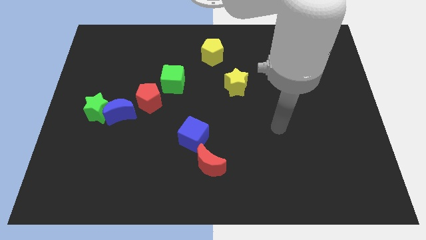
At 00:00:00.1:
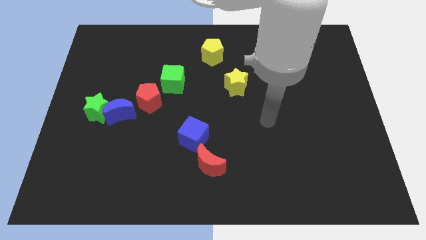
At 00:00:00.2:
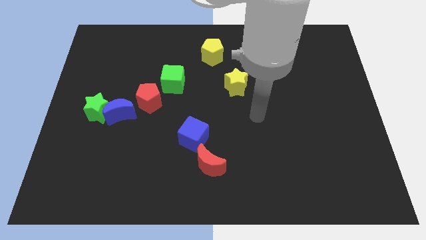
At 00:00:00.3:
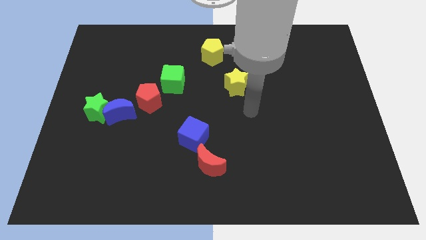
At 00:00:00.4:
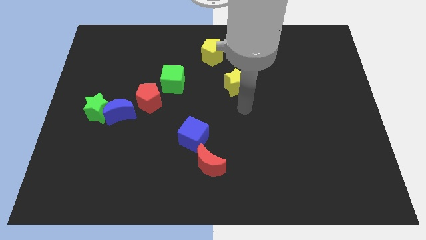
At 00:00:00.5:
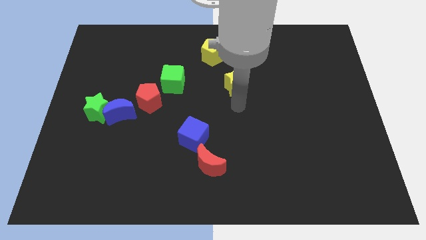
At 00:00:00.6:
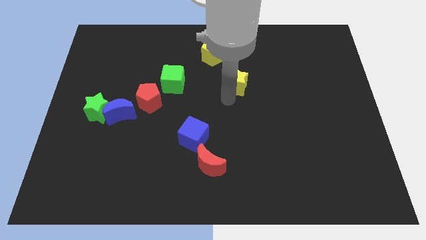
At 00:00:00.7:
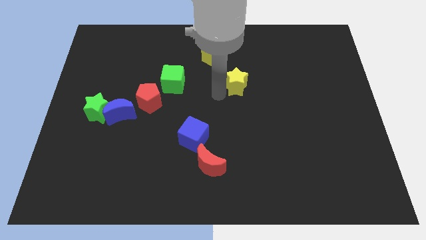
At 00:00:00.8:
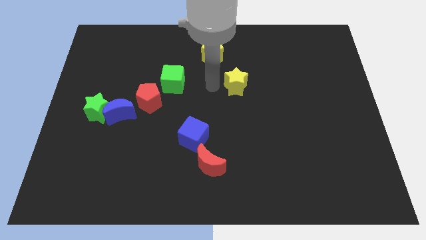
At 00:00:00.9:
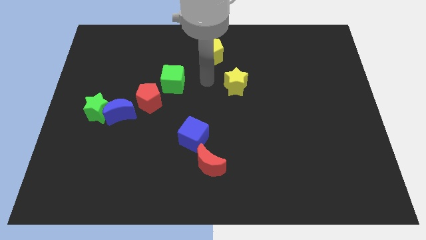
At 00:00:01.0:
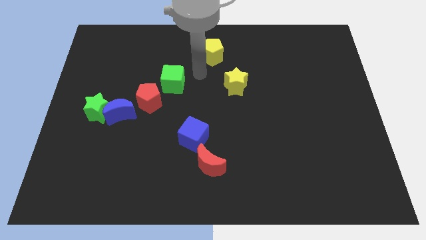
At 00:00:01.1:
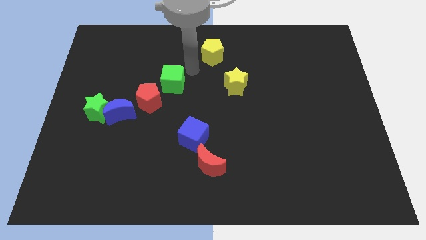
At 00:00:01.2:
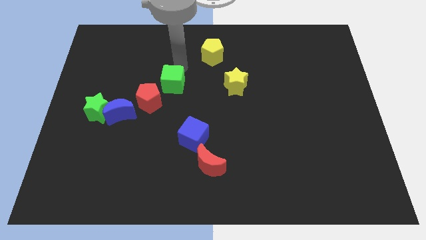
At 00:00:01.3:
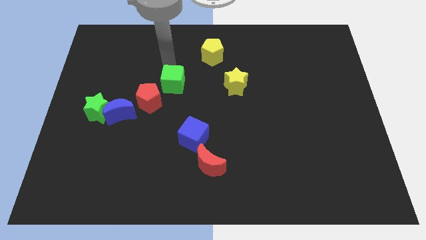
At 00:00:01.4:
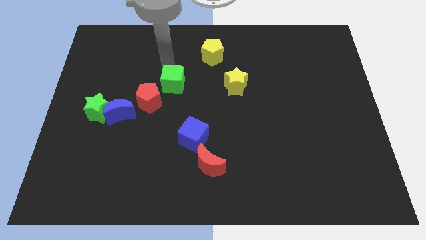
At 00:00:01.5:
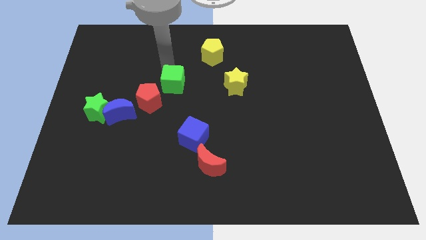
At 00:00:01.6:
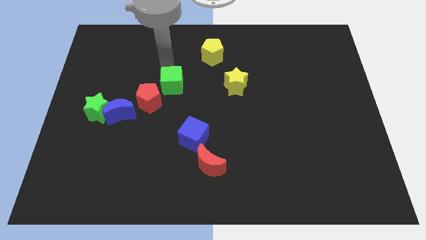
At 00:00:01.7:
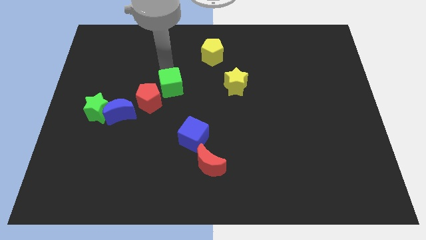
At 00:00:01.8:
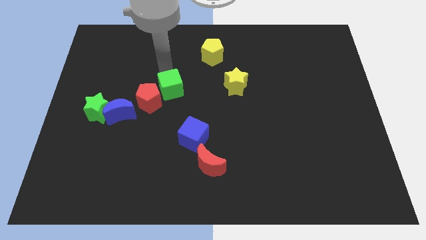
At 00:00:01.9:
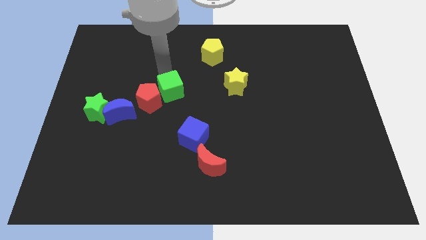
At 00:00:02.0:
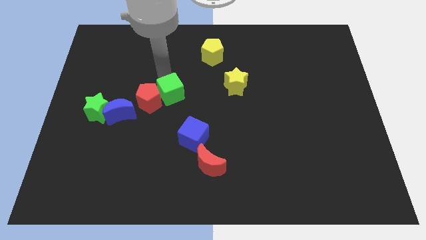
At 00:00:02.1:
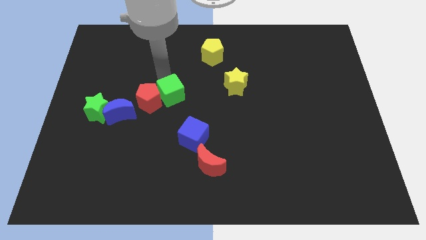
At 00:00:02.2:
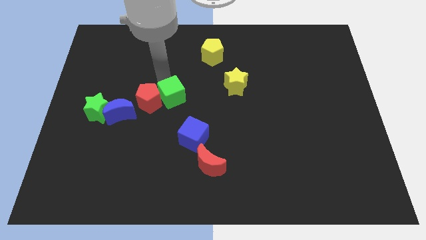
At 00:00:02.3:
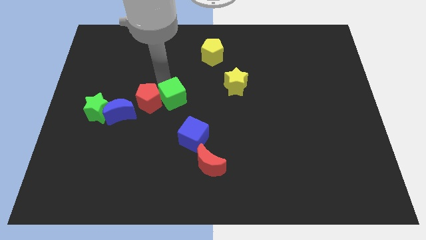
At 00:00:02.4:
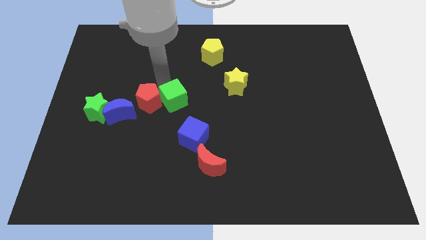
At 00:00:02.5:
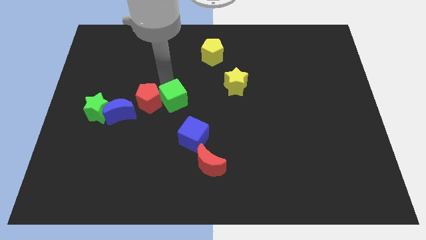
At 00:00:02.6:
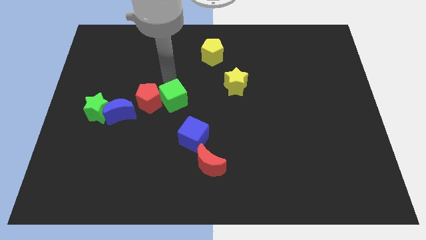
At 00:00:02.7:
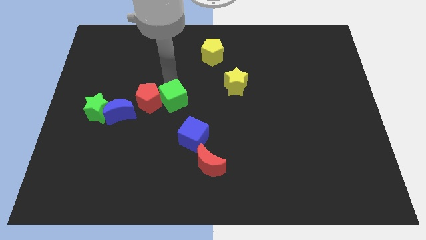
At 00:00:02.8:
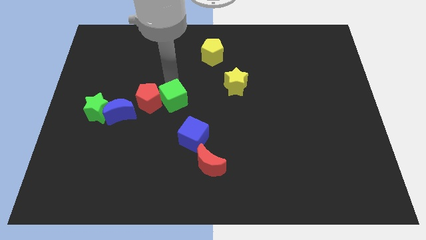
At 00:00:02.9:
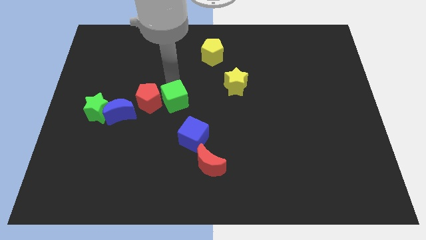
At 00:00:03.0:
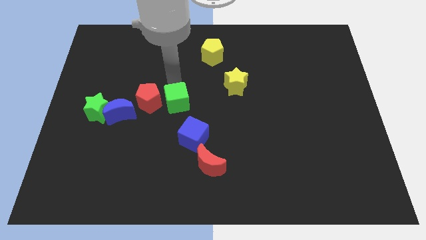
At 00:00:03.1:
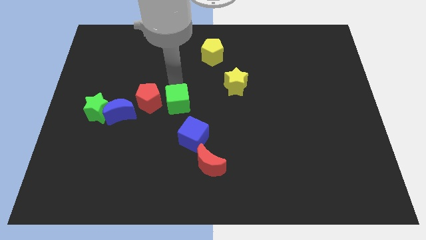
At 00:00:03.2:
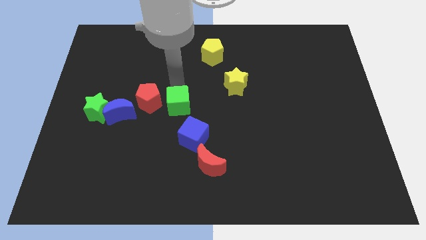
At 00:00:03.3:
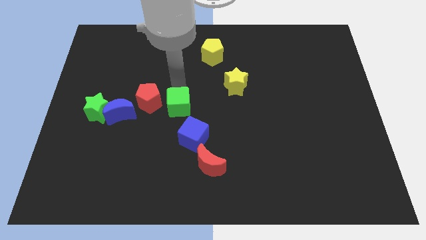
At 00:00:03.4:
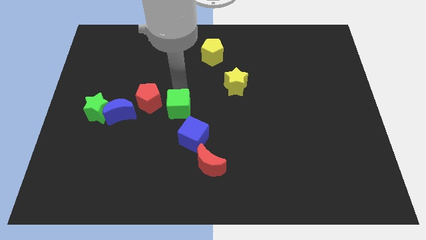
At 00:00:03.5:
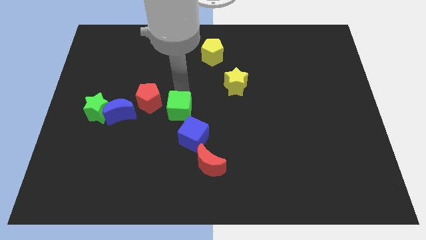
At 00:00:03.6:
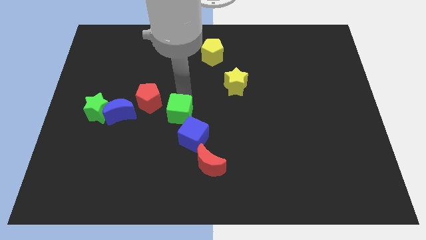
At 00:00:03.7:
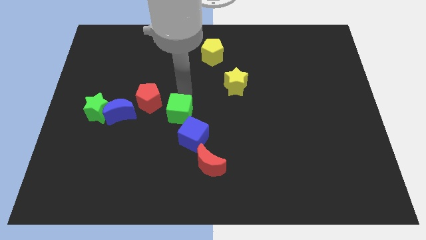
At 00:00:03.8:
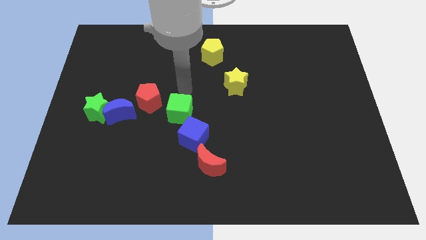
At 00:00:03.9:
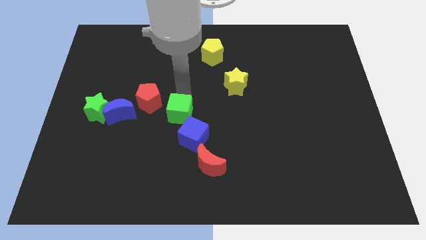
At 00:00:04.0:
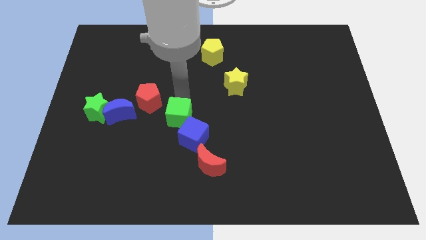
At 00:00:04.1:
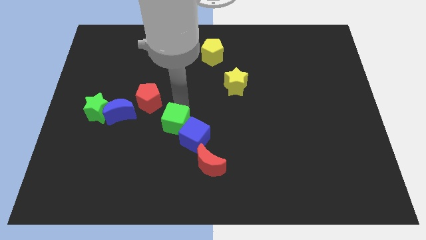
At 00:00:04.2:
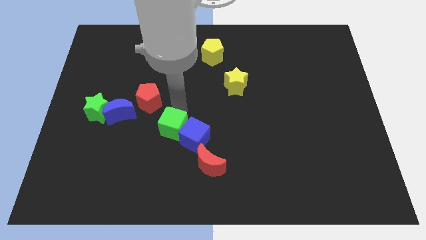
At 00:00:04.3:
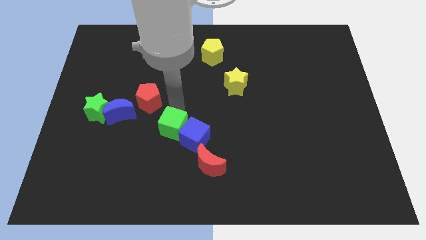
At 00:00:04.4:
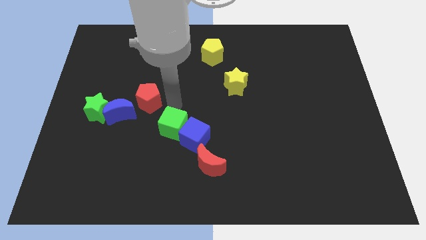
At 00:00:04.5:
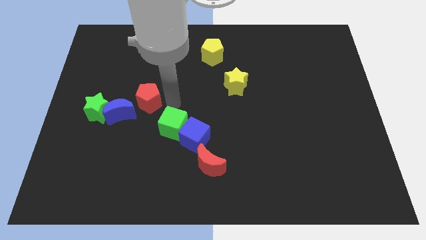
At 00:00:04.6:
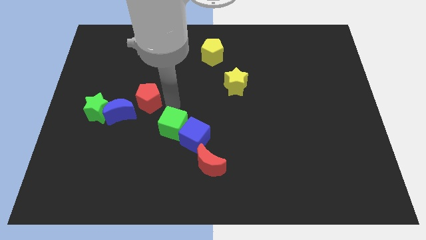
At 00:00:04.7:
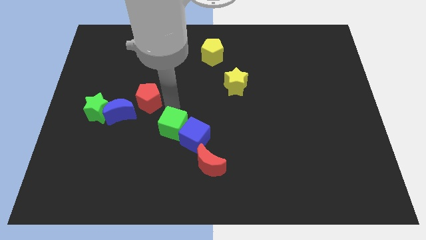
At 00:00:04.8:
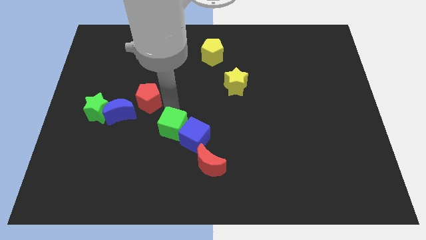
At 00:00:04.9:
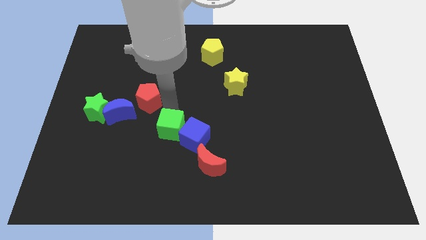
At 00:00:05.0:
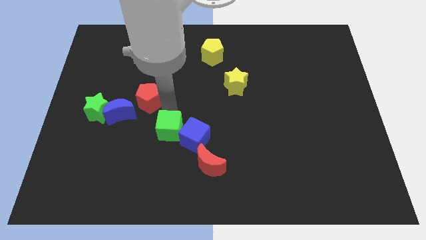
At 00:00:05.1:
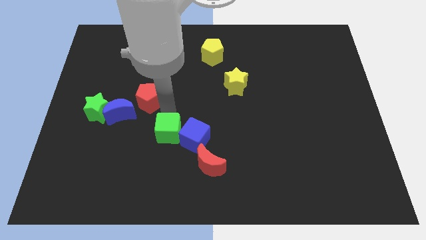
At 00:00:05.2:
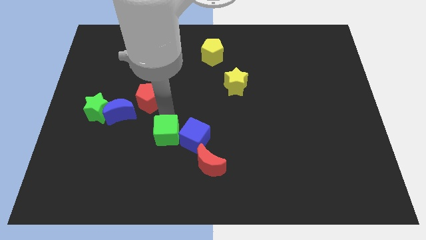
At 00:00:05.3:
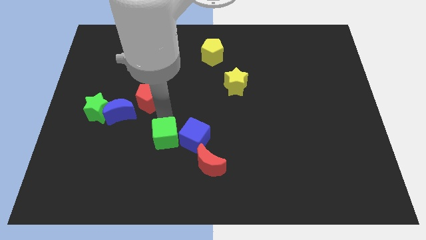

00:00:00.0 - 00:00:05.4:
put the green cube diagonally down and to the left of the blue cube

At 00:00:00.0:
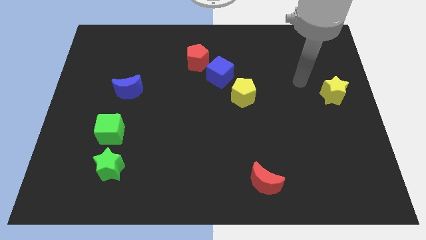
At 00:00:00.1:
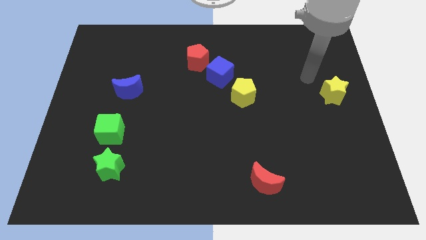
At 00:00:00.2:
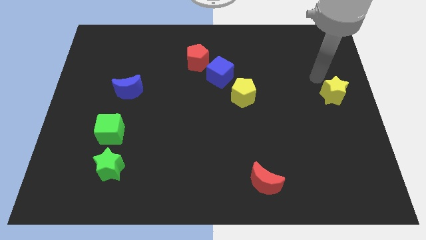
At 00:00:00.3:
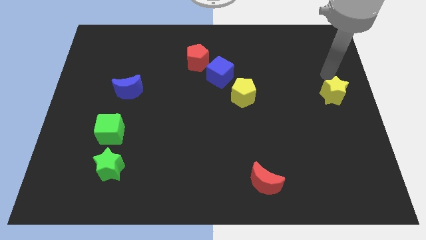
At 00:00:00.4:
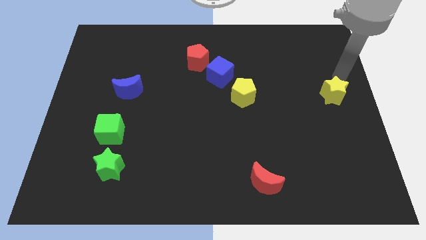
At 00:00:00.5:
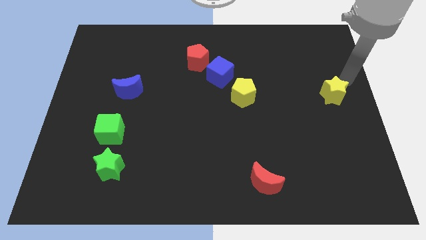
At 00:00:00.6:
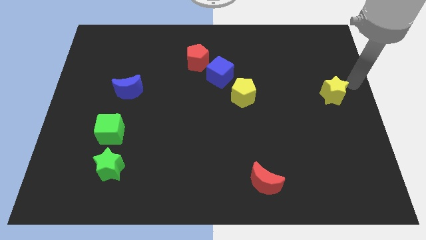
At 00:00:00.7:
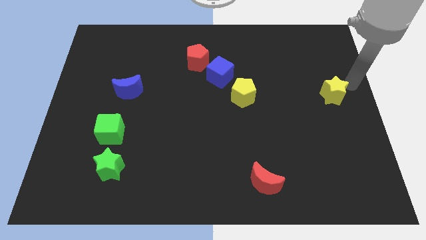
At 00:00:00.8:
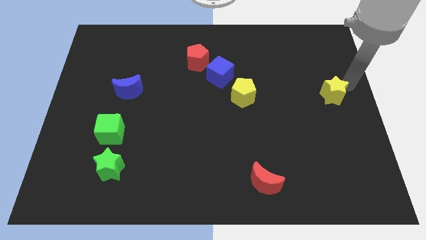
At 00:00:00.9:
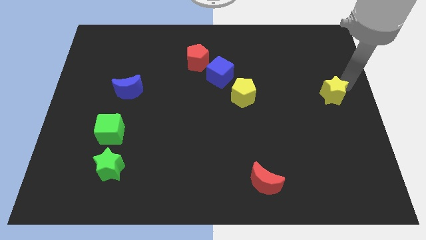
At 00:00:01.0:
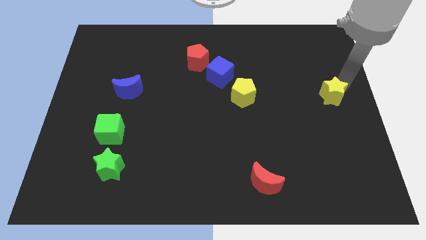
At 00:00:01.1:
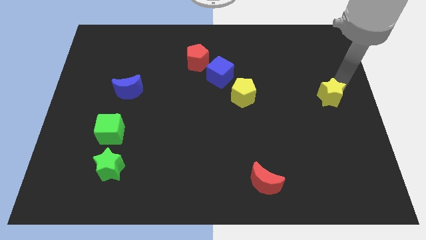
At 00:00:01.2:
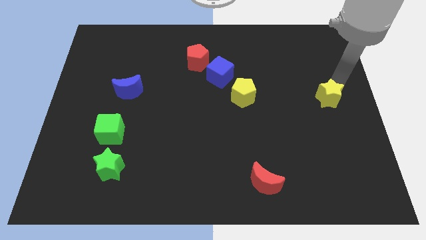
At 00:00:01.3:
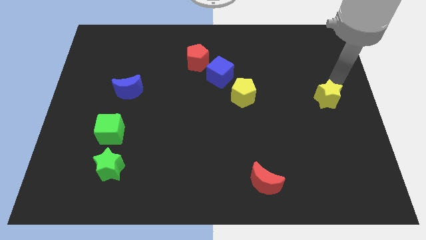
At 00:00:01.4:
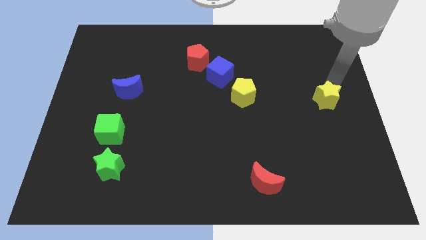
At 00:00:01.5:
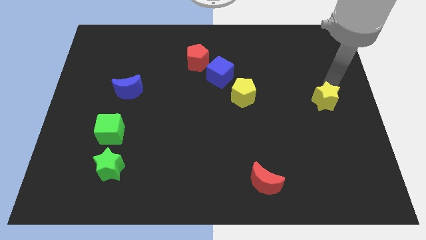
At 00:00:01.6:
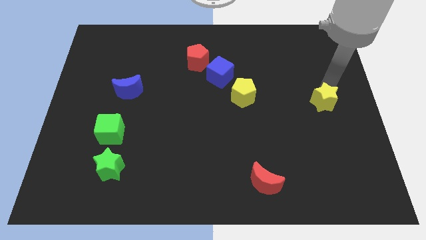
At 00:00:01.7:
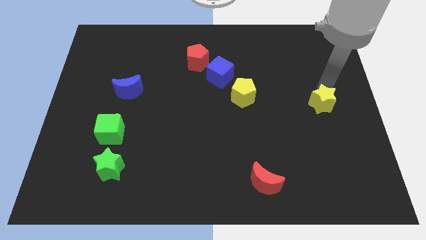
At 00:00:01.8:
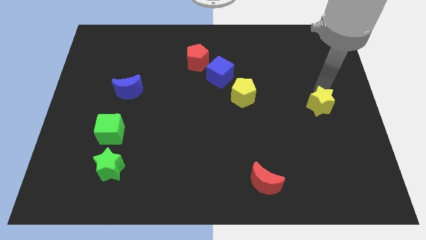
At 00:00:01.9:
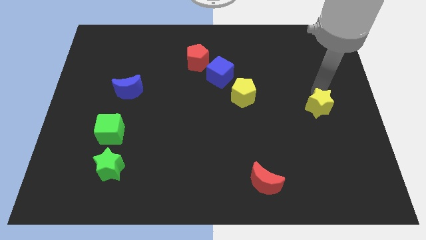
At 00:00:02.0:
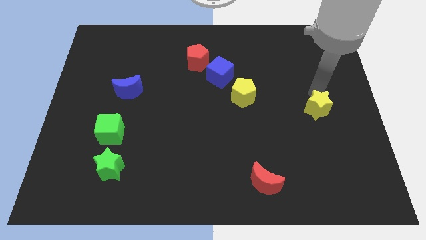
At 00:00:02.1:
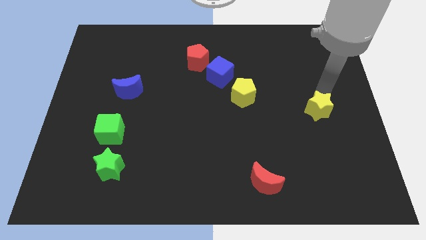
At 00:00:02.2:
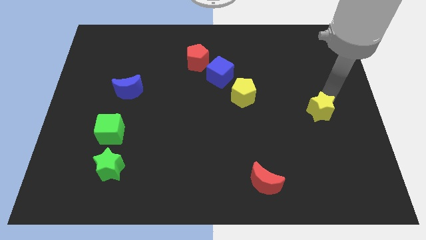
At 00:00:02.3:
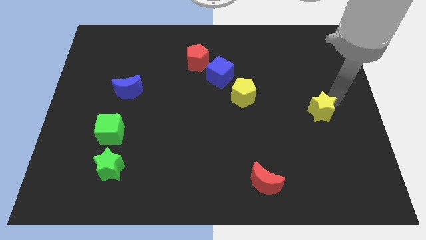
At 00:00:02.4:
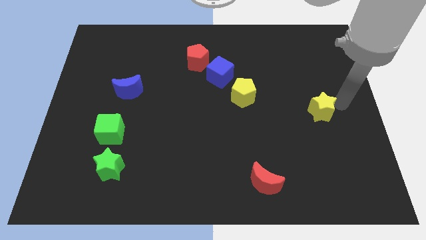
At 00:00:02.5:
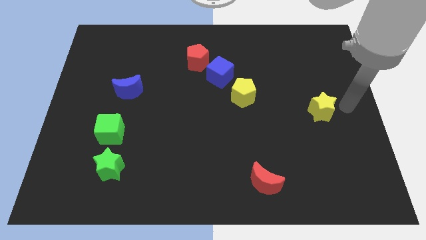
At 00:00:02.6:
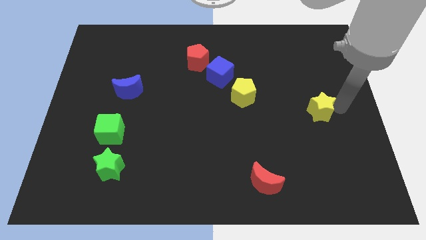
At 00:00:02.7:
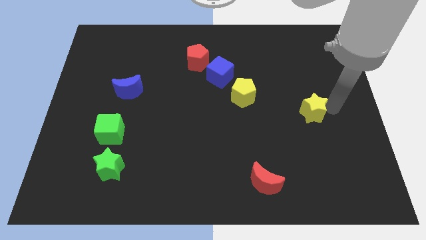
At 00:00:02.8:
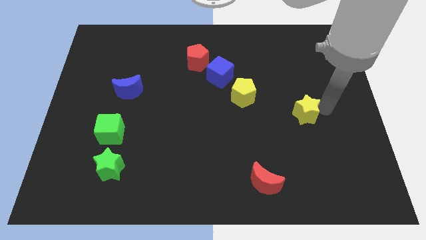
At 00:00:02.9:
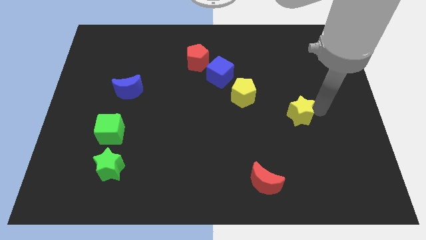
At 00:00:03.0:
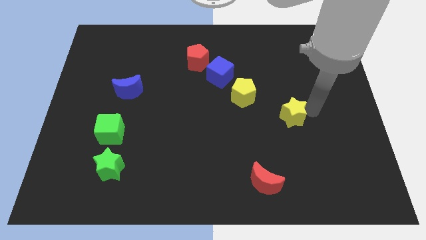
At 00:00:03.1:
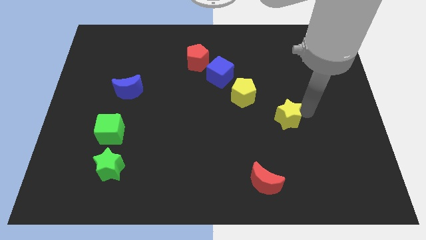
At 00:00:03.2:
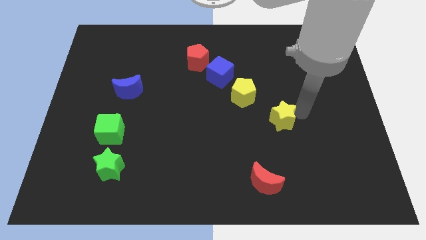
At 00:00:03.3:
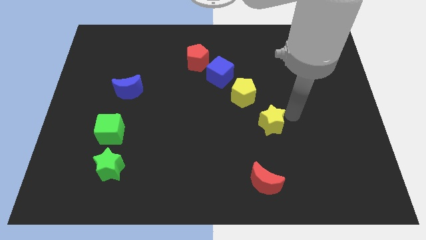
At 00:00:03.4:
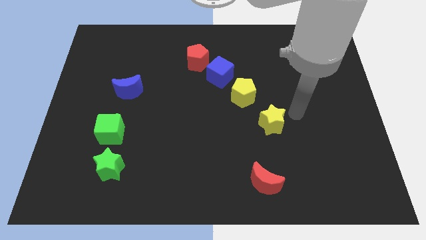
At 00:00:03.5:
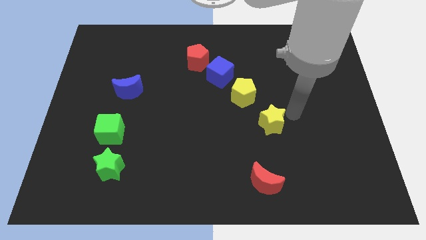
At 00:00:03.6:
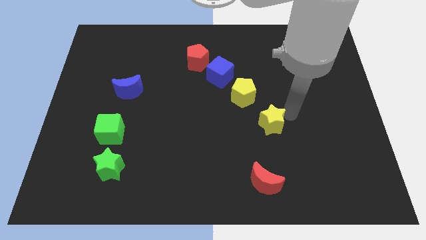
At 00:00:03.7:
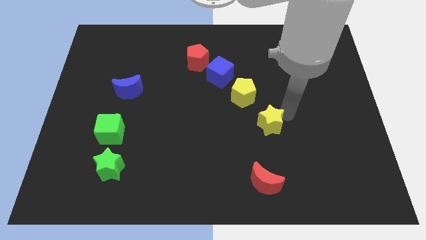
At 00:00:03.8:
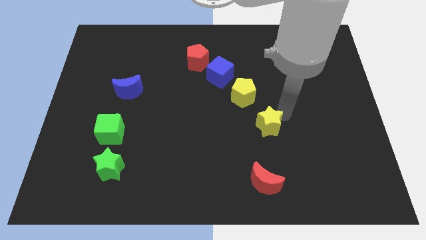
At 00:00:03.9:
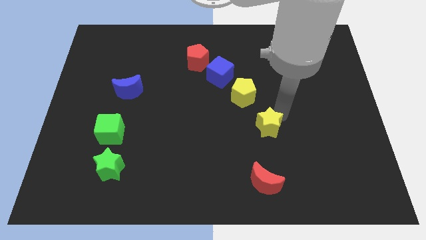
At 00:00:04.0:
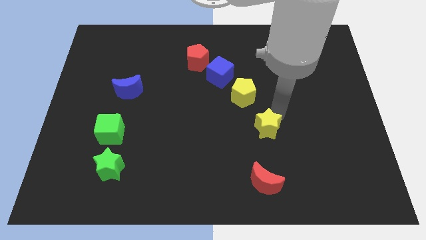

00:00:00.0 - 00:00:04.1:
move the yellow star to the bottom of the yellow pentagon
